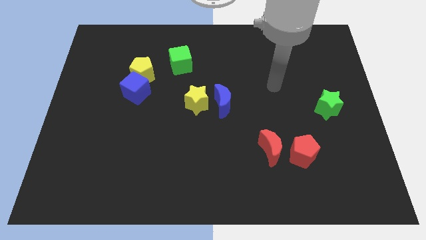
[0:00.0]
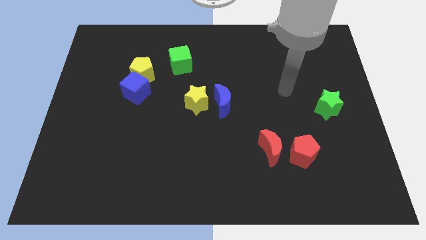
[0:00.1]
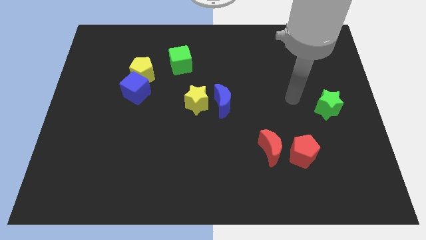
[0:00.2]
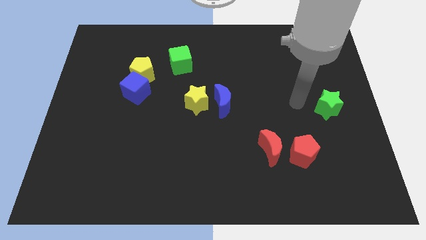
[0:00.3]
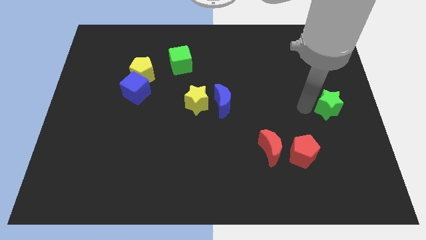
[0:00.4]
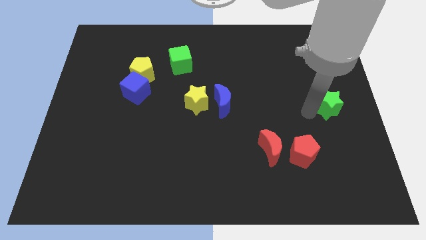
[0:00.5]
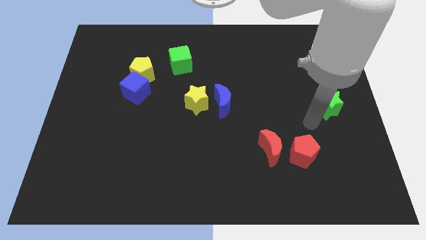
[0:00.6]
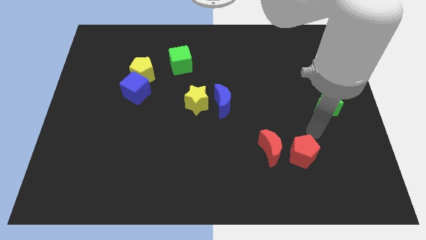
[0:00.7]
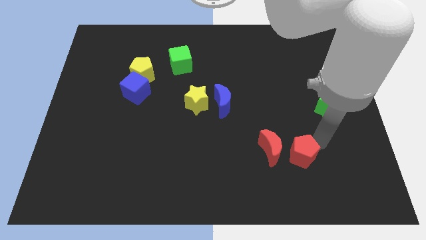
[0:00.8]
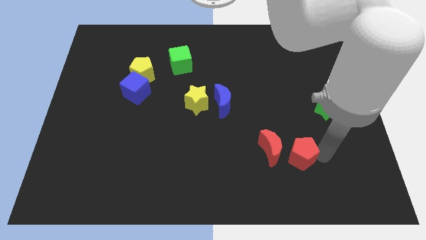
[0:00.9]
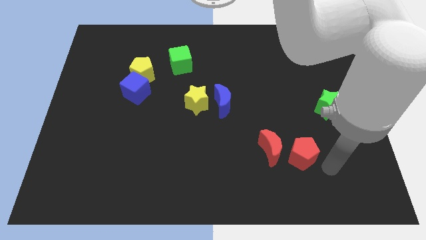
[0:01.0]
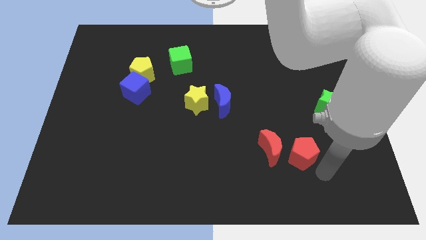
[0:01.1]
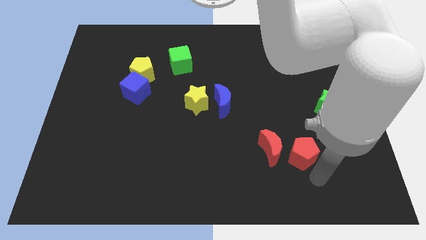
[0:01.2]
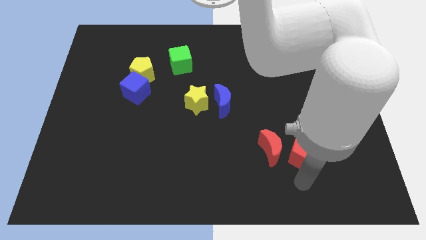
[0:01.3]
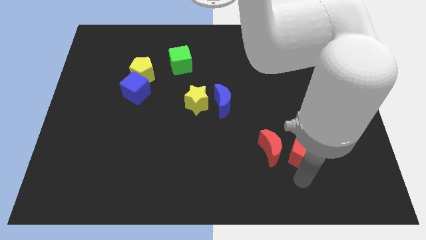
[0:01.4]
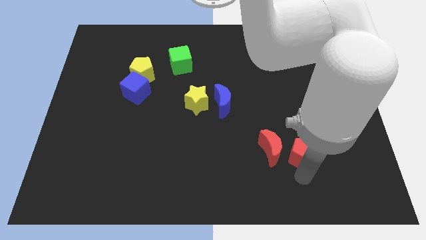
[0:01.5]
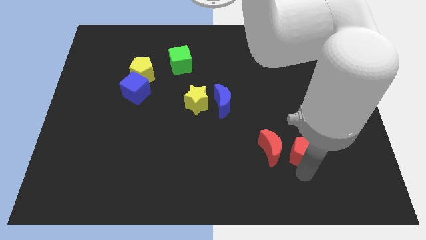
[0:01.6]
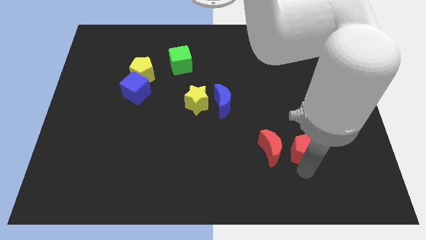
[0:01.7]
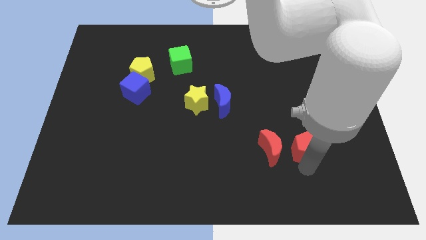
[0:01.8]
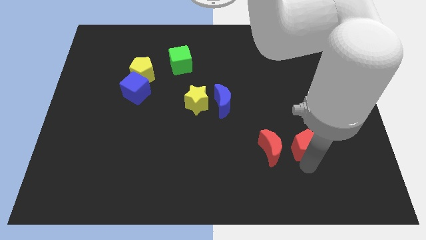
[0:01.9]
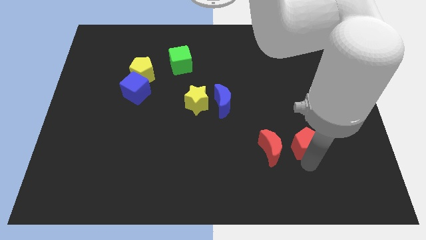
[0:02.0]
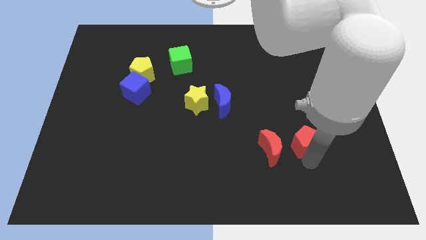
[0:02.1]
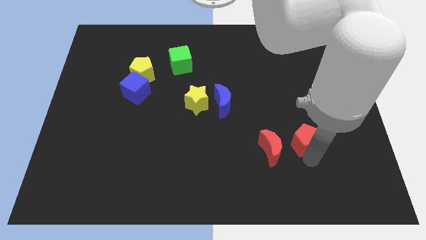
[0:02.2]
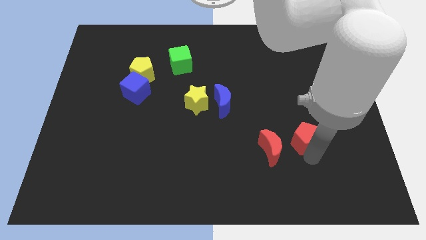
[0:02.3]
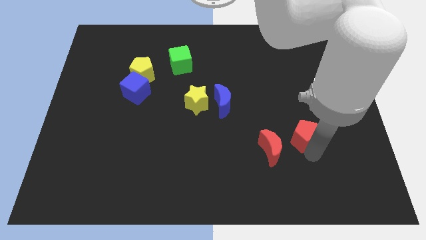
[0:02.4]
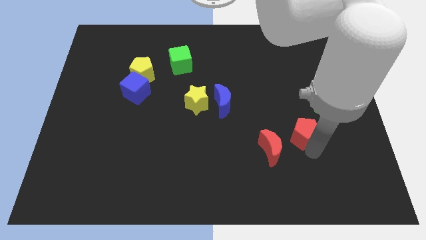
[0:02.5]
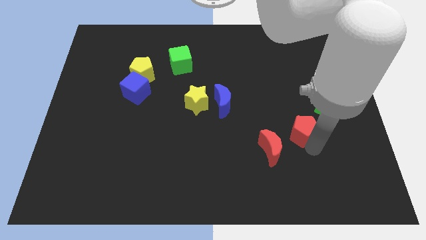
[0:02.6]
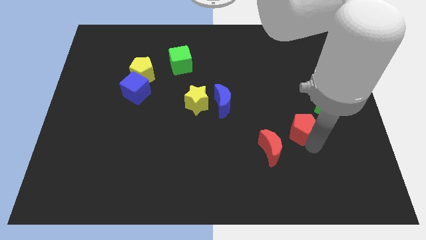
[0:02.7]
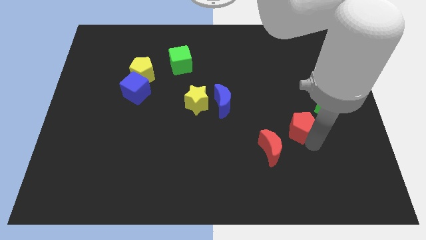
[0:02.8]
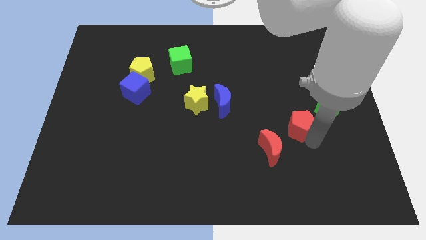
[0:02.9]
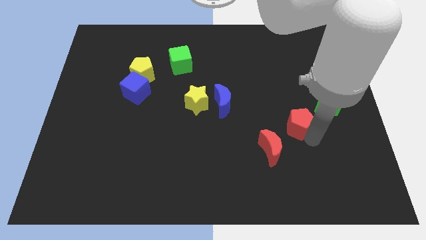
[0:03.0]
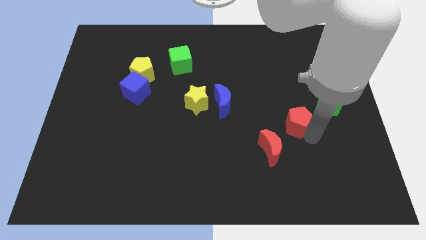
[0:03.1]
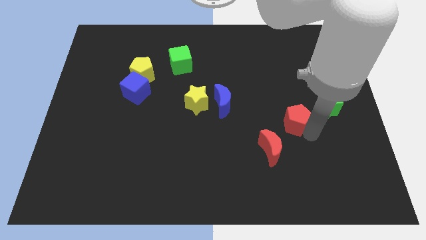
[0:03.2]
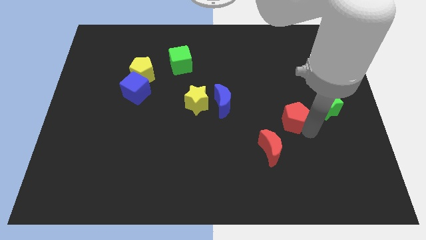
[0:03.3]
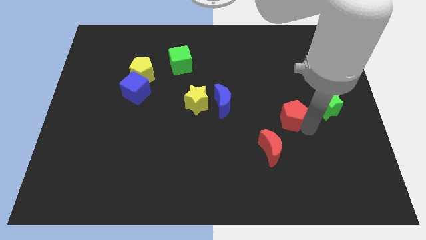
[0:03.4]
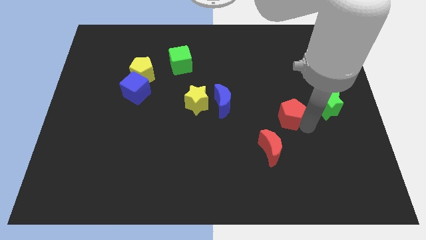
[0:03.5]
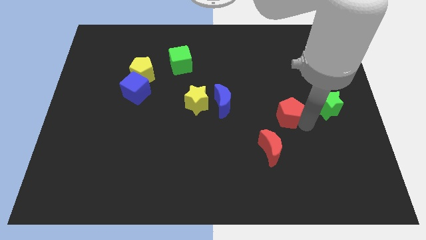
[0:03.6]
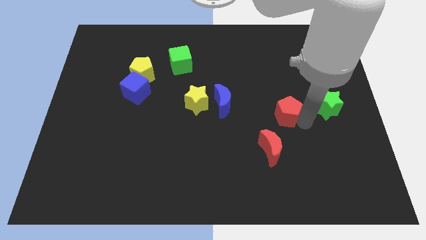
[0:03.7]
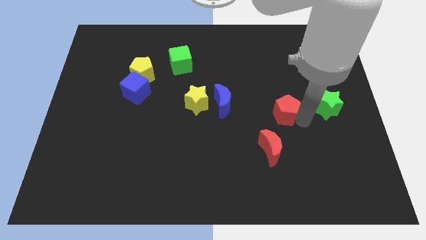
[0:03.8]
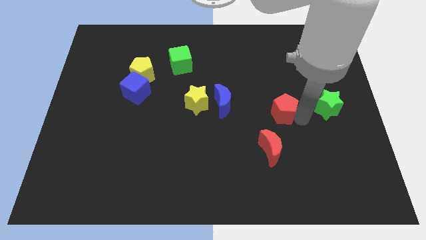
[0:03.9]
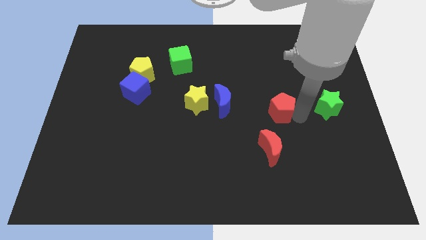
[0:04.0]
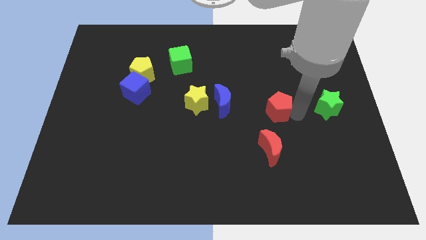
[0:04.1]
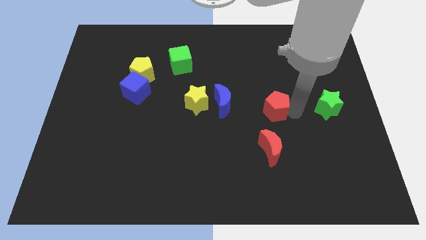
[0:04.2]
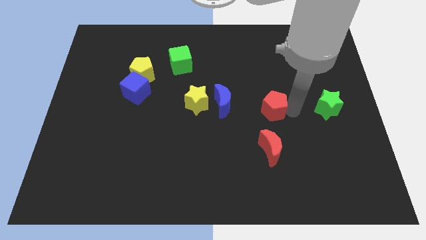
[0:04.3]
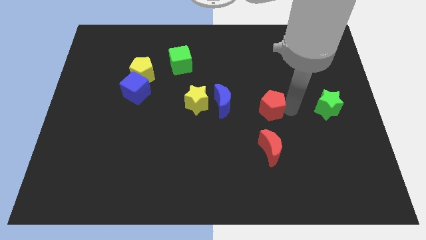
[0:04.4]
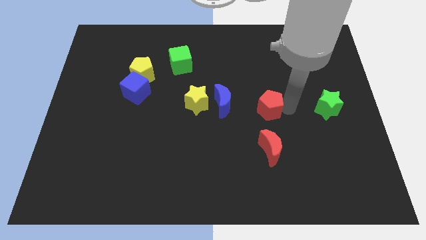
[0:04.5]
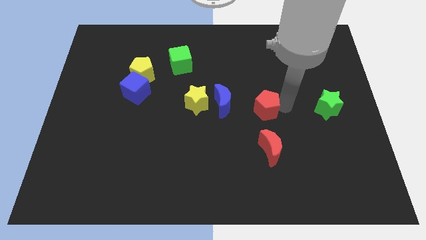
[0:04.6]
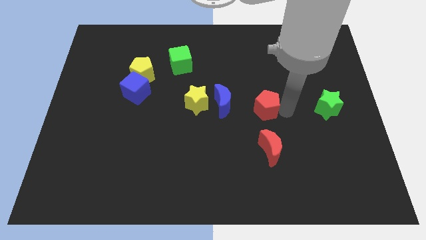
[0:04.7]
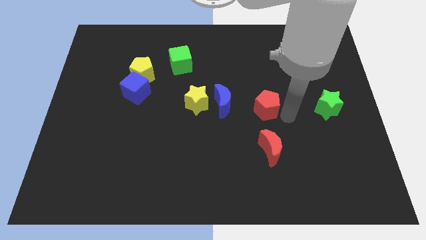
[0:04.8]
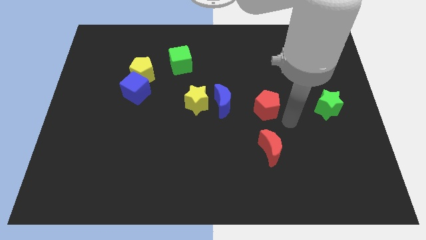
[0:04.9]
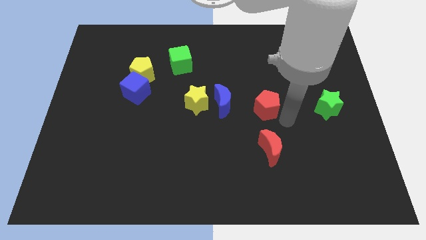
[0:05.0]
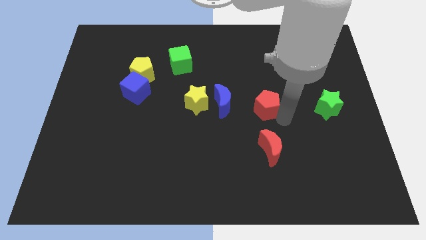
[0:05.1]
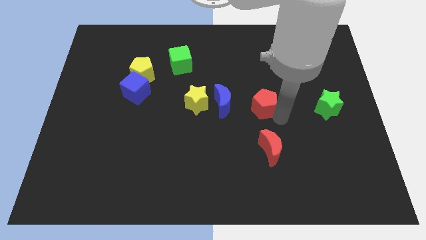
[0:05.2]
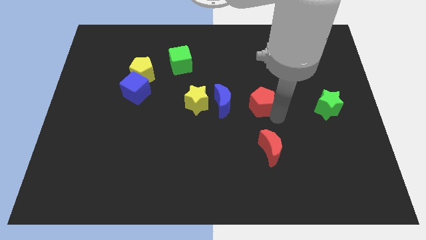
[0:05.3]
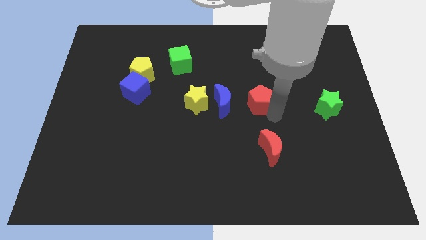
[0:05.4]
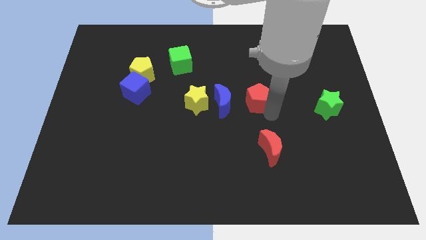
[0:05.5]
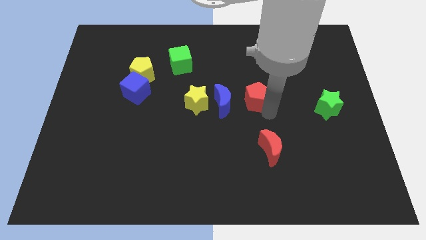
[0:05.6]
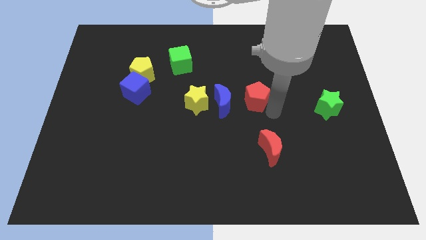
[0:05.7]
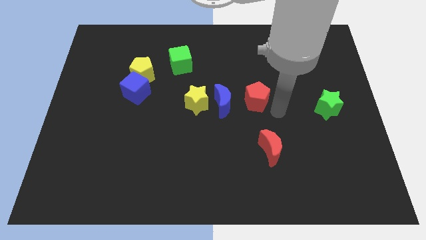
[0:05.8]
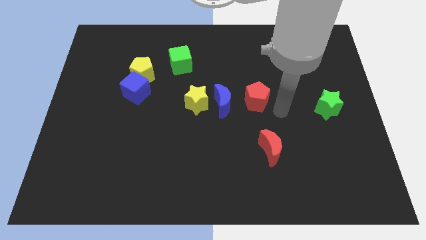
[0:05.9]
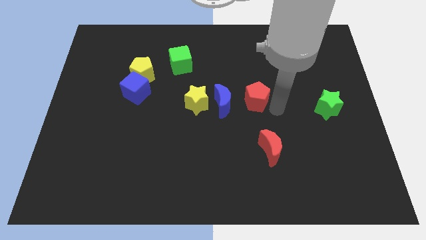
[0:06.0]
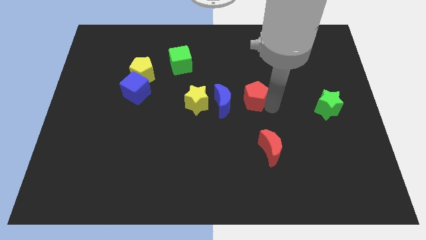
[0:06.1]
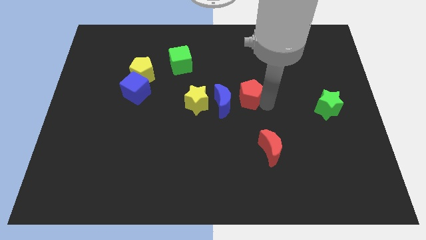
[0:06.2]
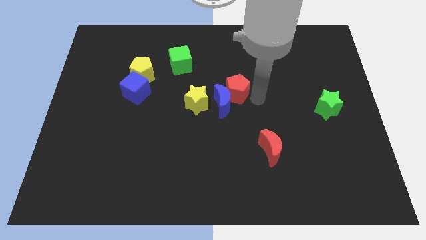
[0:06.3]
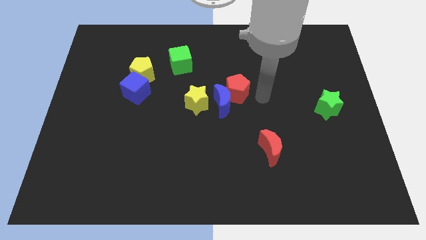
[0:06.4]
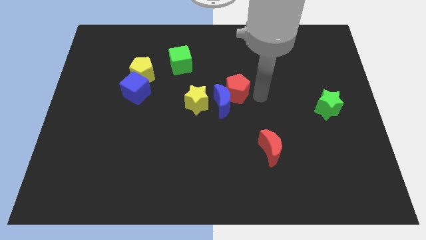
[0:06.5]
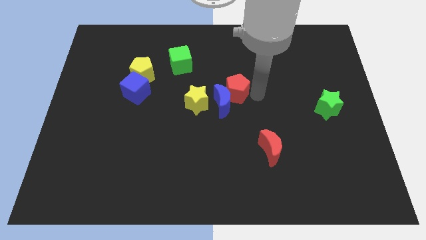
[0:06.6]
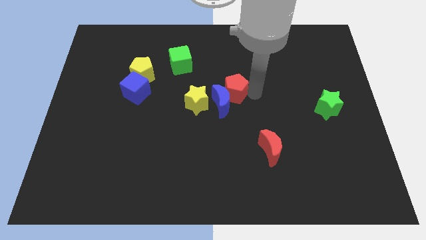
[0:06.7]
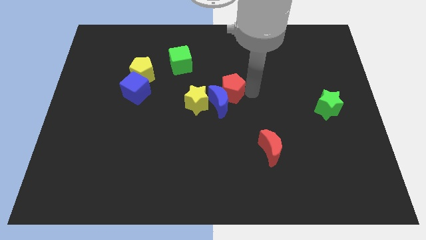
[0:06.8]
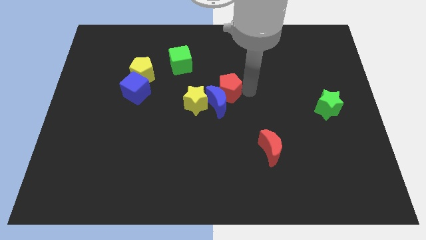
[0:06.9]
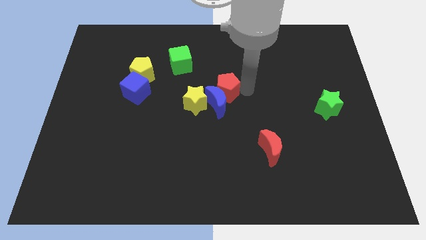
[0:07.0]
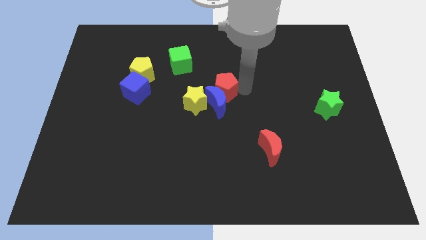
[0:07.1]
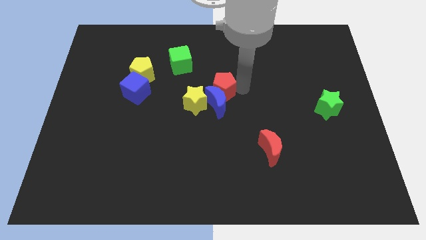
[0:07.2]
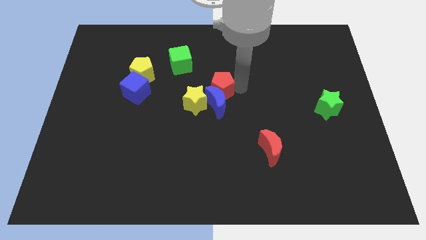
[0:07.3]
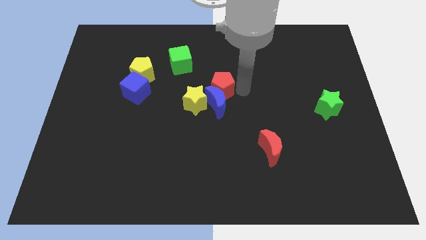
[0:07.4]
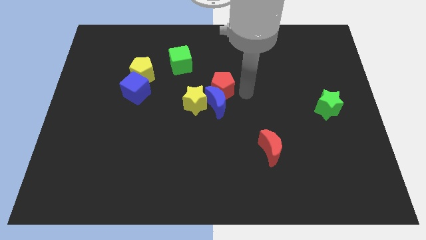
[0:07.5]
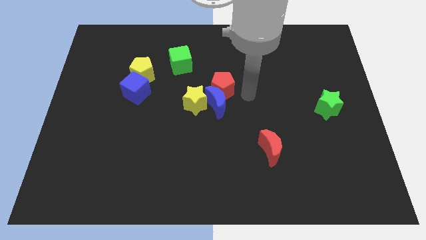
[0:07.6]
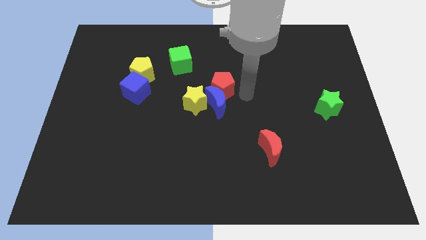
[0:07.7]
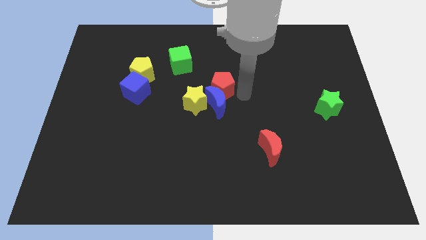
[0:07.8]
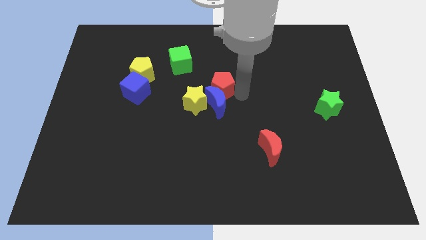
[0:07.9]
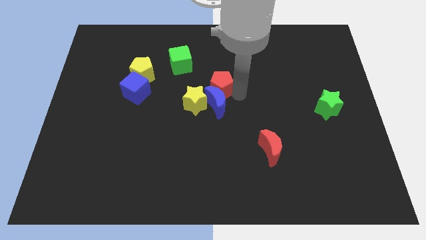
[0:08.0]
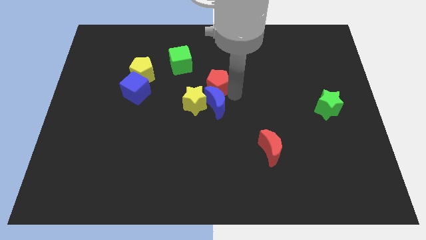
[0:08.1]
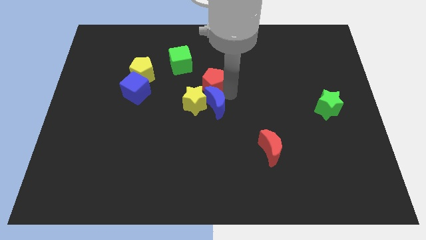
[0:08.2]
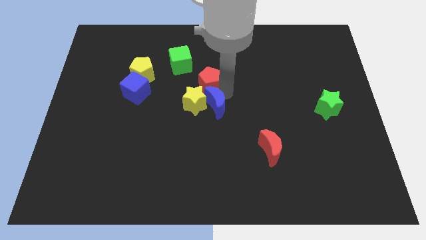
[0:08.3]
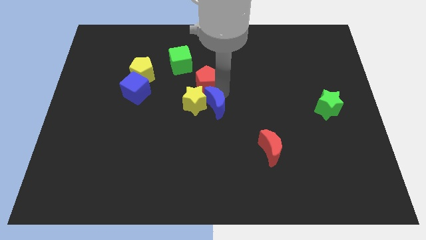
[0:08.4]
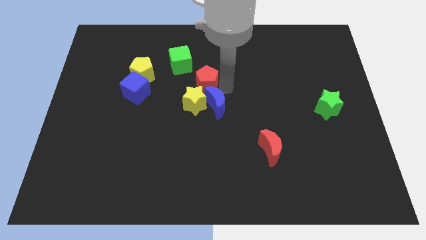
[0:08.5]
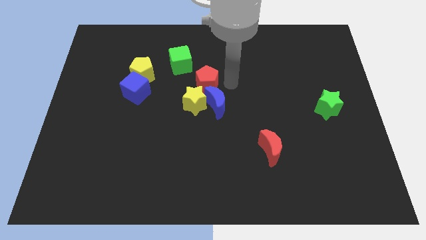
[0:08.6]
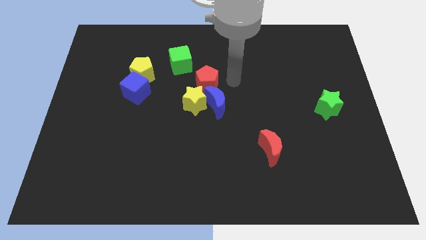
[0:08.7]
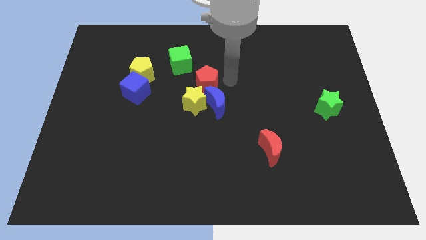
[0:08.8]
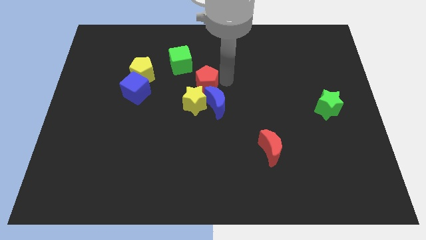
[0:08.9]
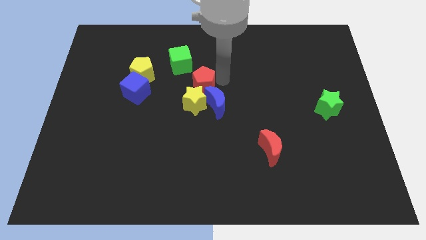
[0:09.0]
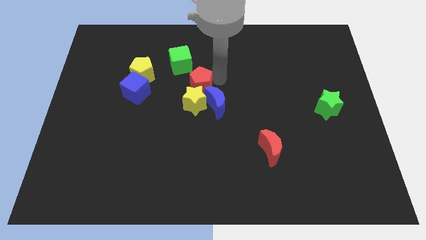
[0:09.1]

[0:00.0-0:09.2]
slide the red pentagon to the top left side of the yellow star
